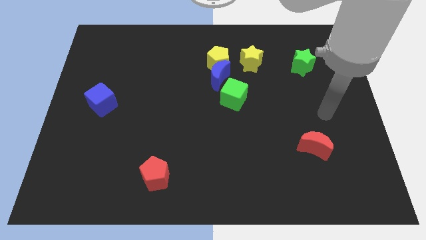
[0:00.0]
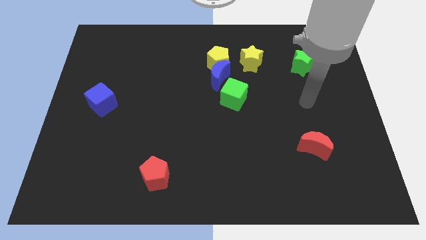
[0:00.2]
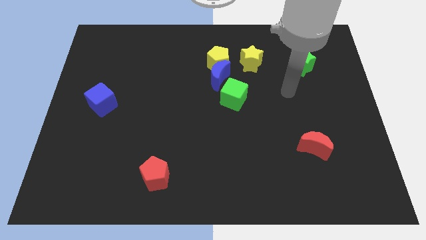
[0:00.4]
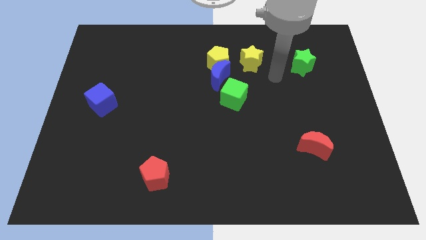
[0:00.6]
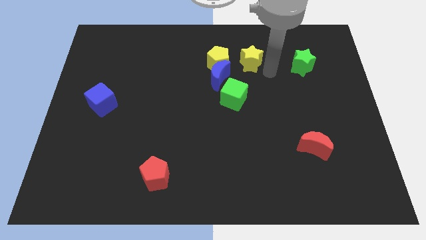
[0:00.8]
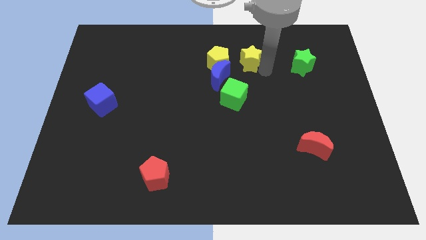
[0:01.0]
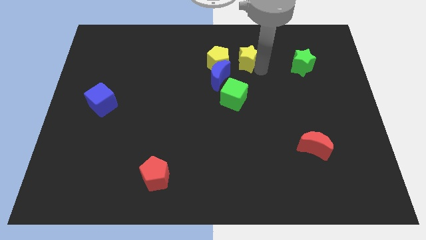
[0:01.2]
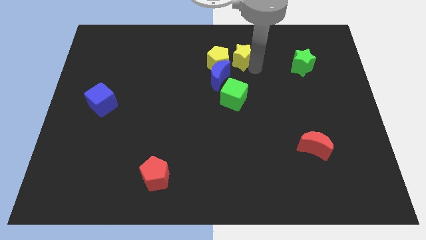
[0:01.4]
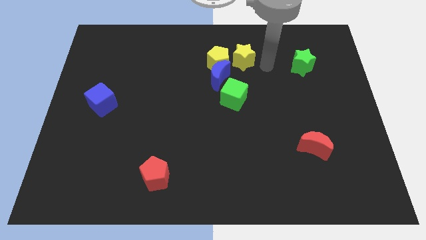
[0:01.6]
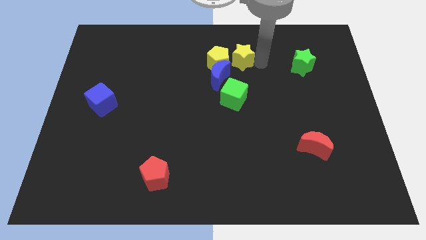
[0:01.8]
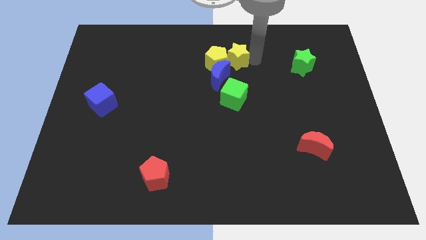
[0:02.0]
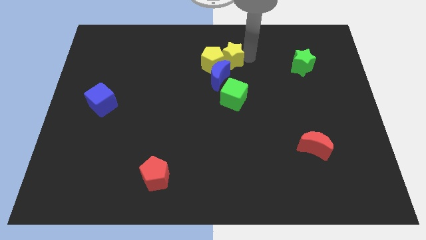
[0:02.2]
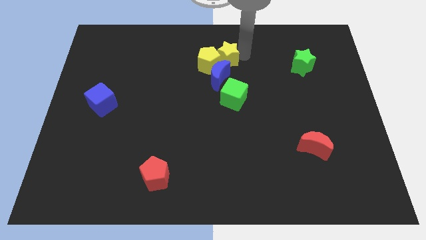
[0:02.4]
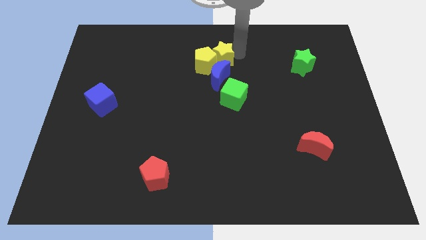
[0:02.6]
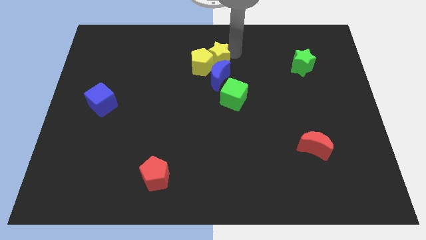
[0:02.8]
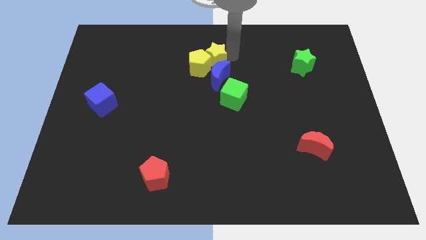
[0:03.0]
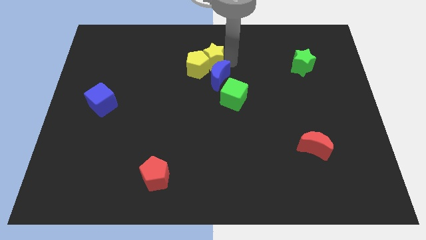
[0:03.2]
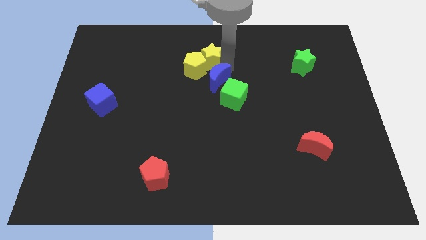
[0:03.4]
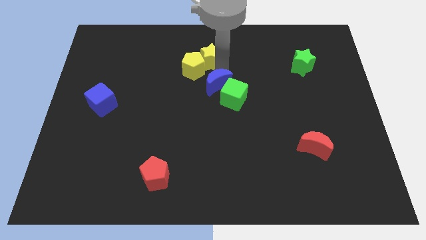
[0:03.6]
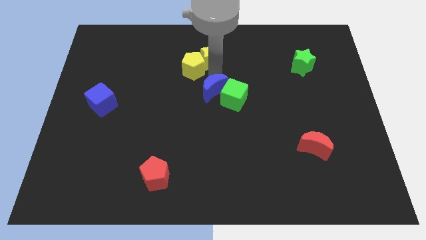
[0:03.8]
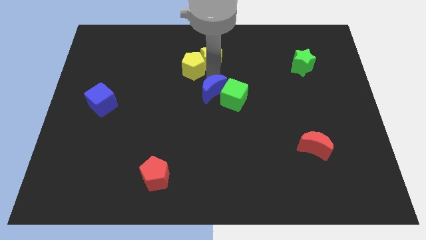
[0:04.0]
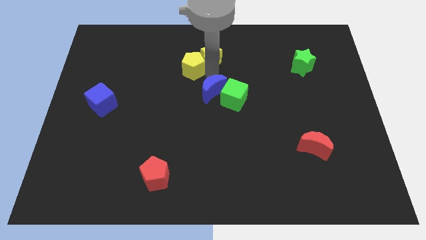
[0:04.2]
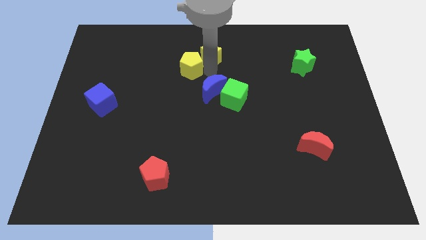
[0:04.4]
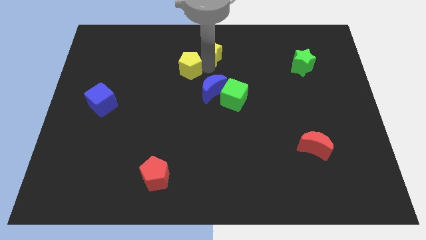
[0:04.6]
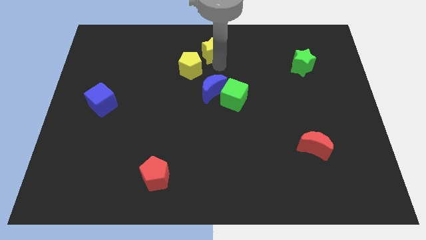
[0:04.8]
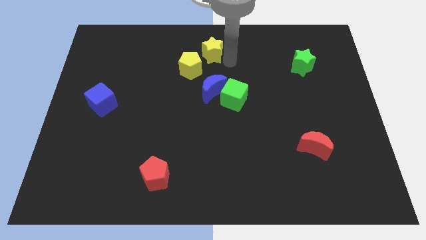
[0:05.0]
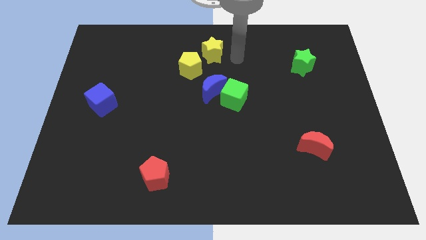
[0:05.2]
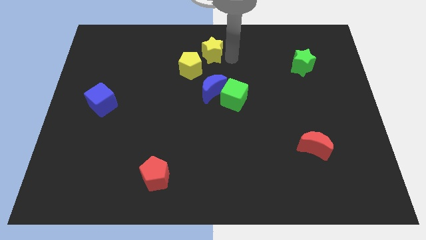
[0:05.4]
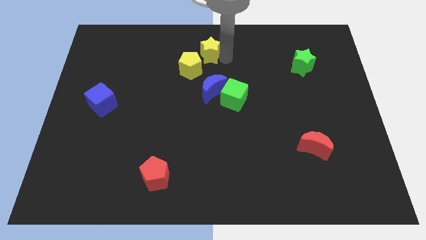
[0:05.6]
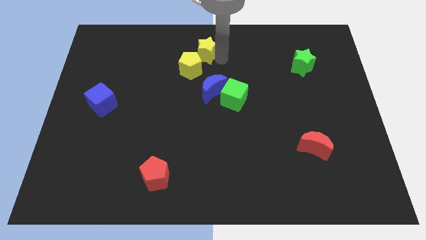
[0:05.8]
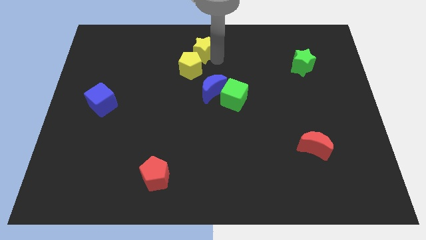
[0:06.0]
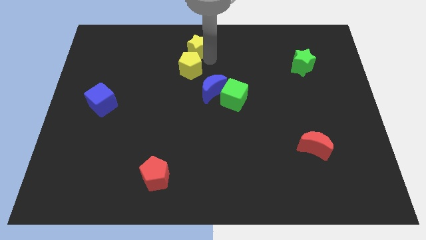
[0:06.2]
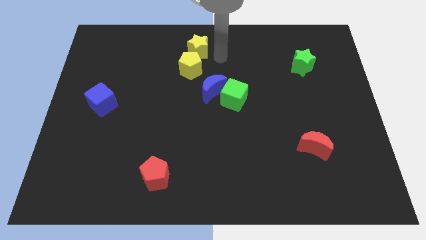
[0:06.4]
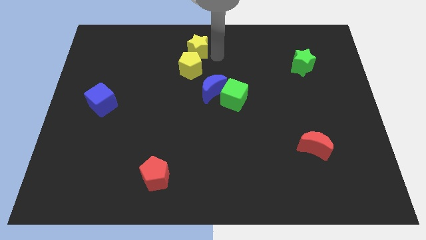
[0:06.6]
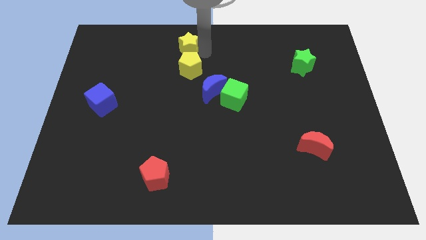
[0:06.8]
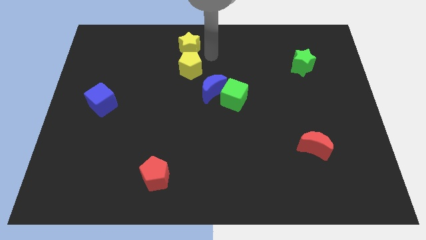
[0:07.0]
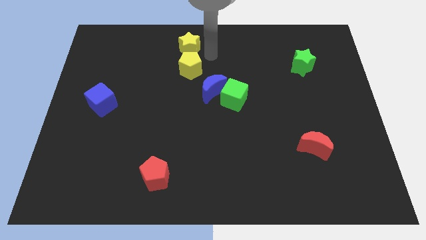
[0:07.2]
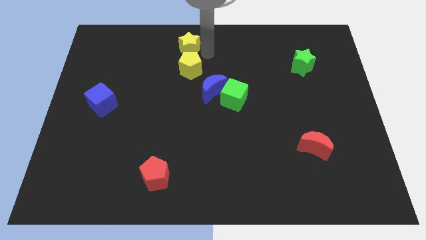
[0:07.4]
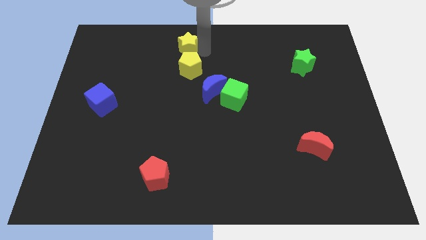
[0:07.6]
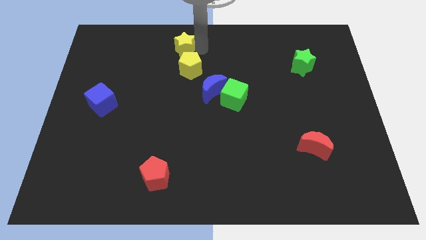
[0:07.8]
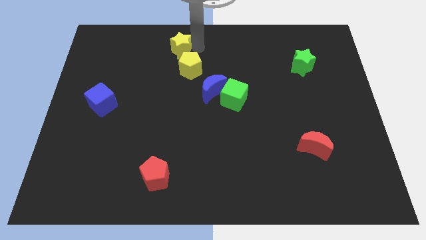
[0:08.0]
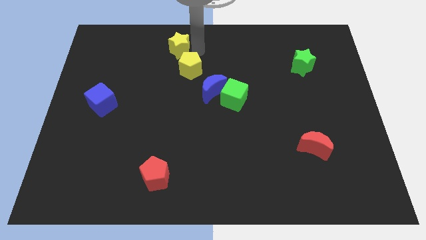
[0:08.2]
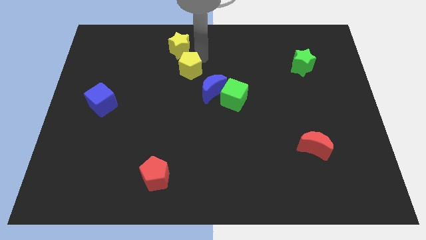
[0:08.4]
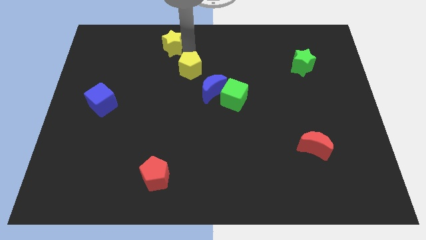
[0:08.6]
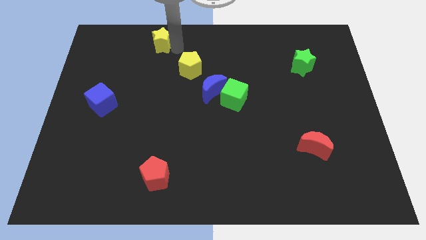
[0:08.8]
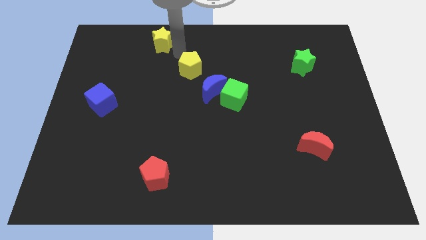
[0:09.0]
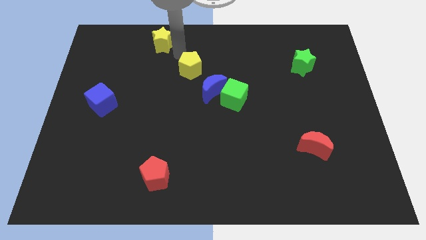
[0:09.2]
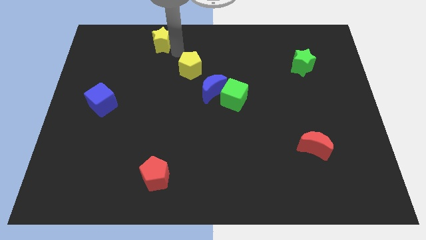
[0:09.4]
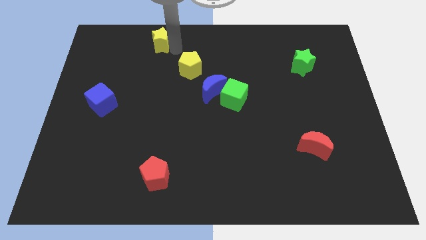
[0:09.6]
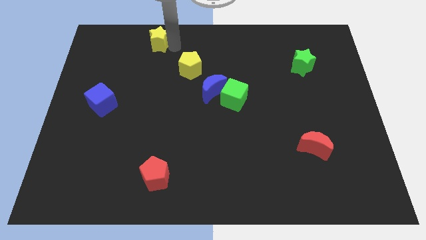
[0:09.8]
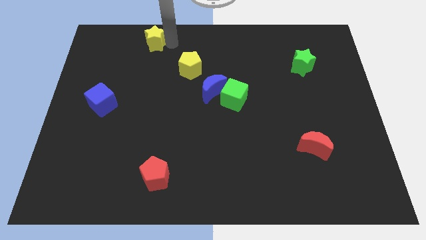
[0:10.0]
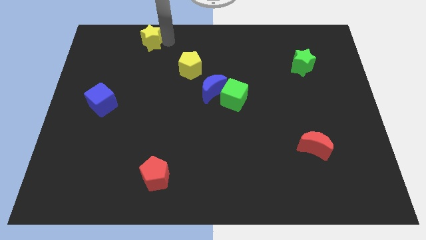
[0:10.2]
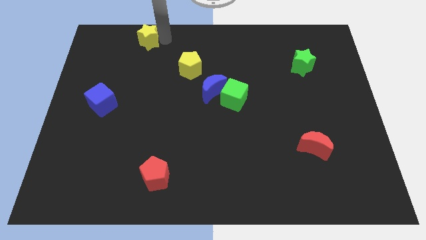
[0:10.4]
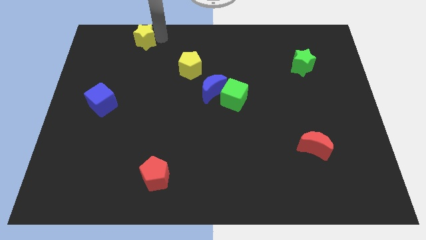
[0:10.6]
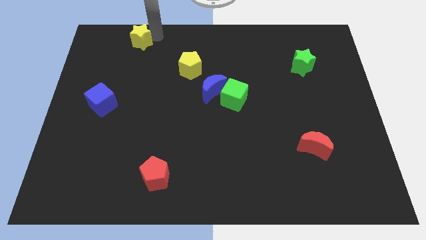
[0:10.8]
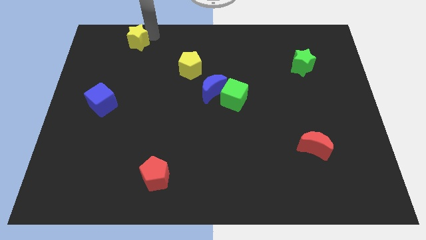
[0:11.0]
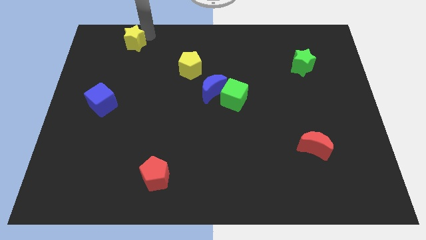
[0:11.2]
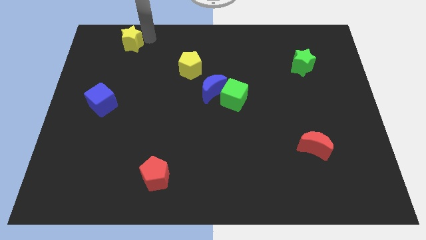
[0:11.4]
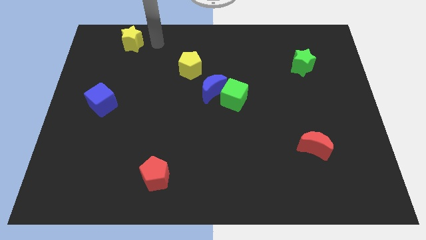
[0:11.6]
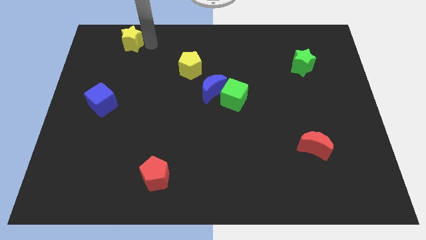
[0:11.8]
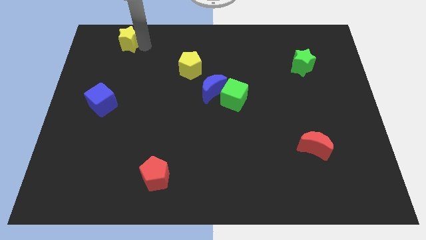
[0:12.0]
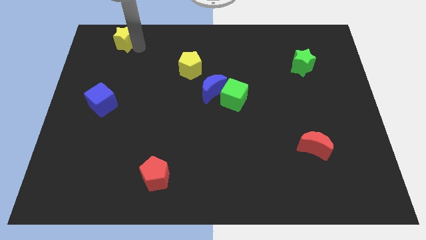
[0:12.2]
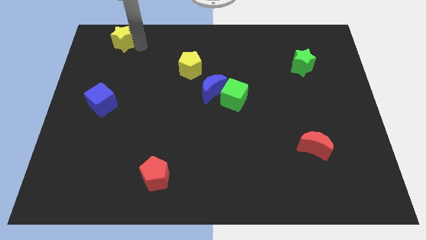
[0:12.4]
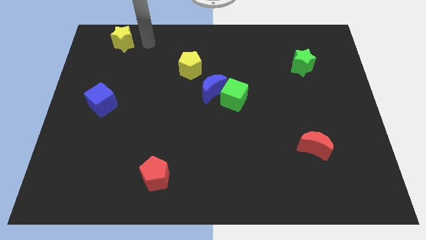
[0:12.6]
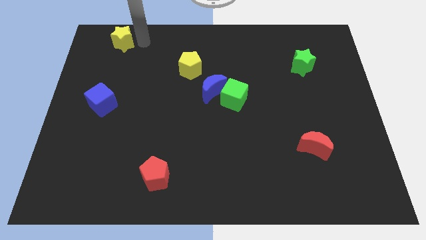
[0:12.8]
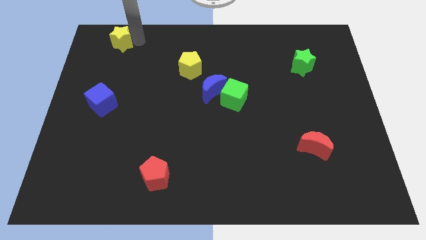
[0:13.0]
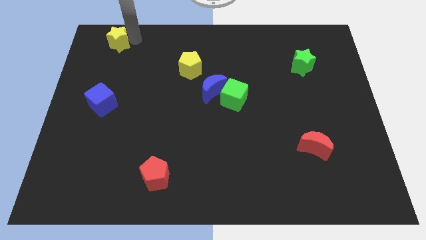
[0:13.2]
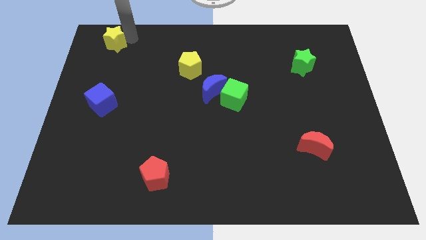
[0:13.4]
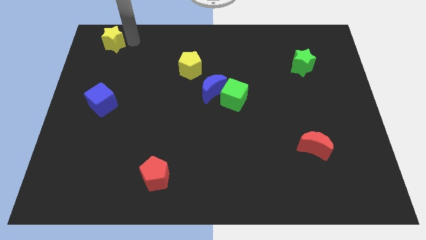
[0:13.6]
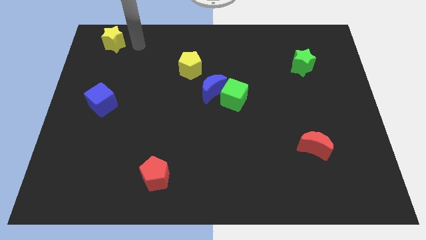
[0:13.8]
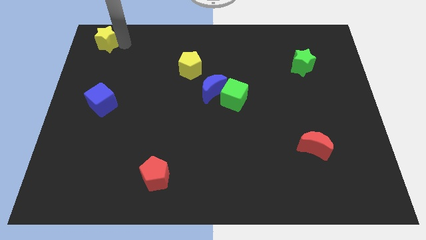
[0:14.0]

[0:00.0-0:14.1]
put the yellow star to the top left
